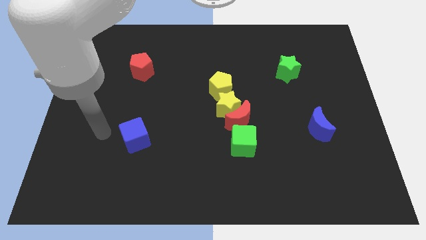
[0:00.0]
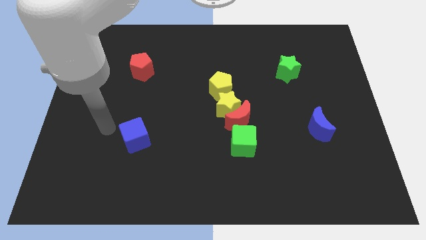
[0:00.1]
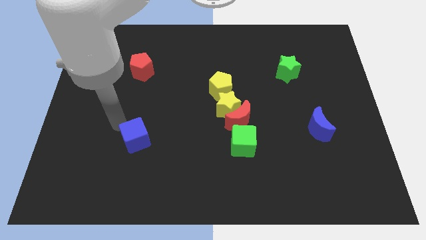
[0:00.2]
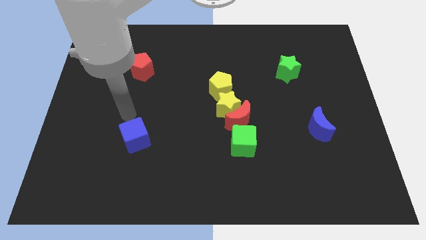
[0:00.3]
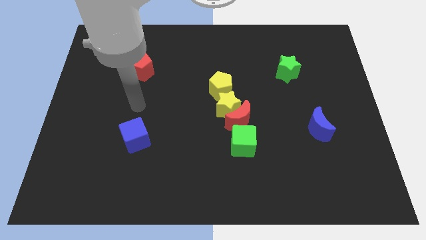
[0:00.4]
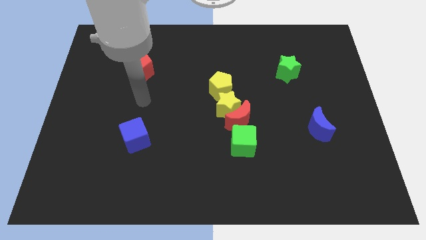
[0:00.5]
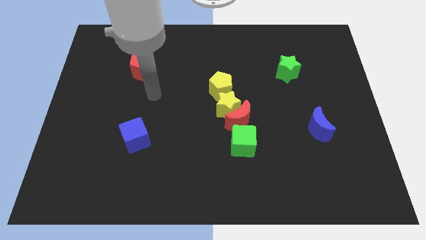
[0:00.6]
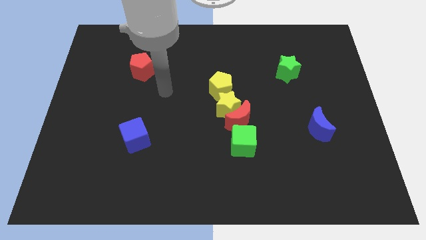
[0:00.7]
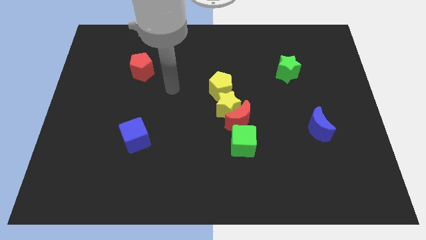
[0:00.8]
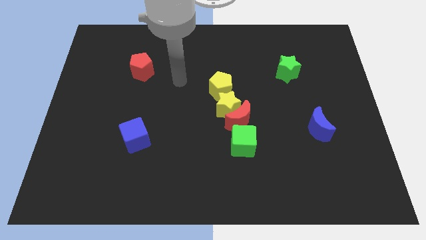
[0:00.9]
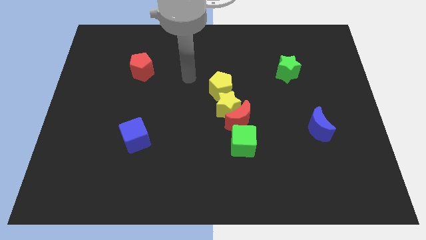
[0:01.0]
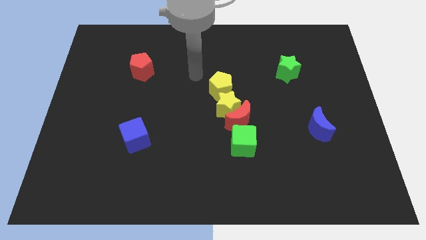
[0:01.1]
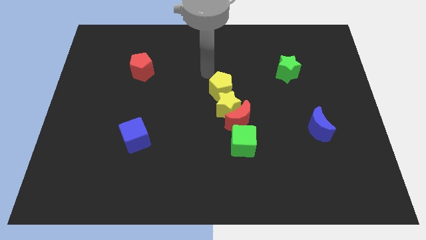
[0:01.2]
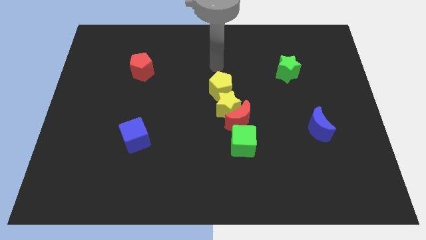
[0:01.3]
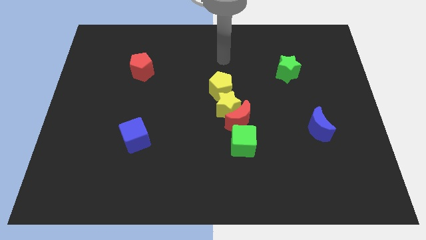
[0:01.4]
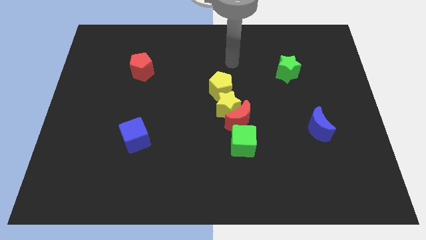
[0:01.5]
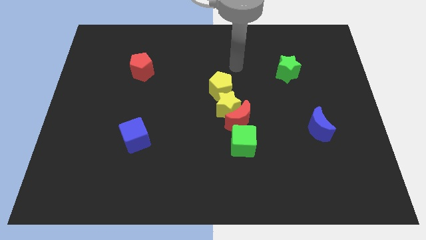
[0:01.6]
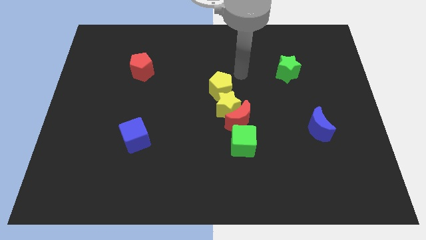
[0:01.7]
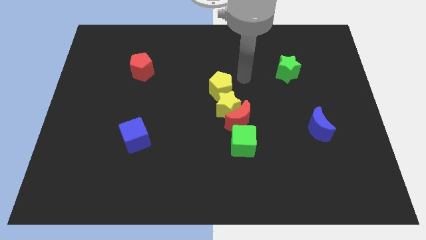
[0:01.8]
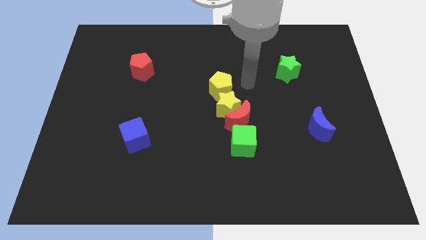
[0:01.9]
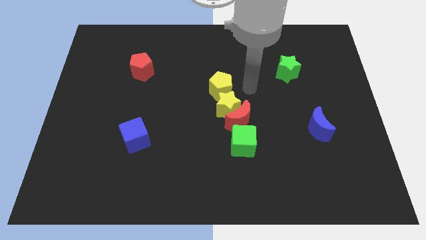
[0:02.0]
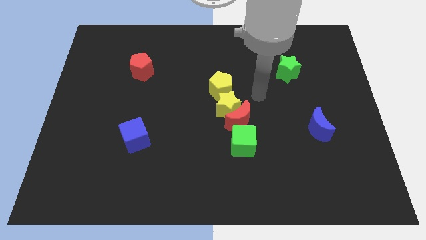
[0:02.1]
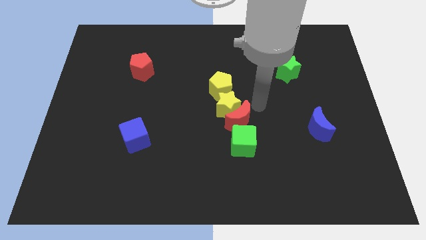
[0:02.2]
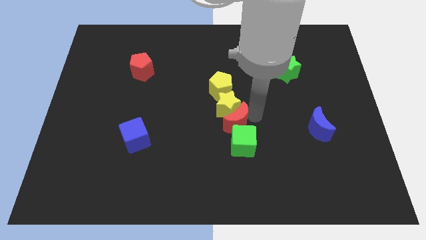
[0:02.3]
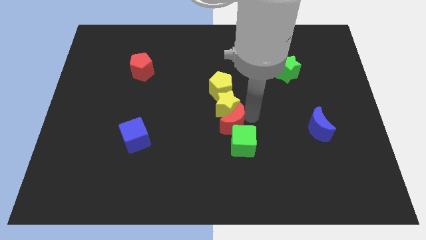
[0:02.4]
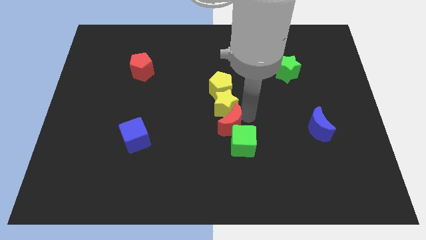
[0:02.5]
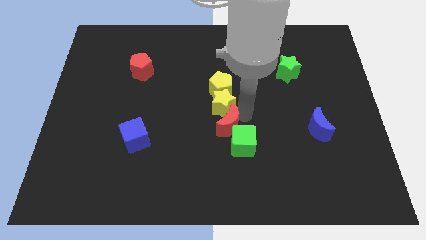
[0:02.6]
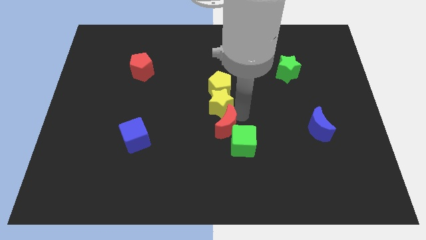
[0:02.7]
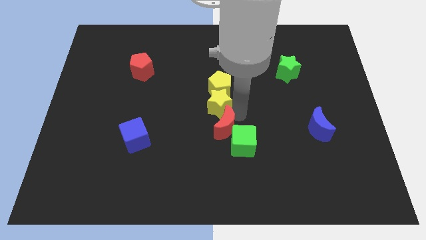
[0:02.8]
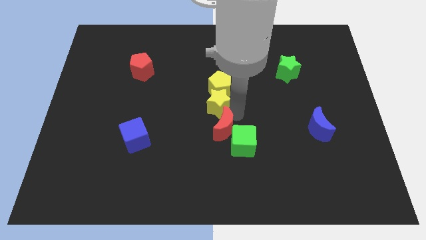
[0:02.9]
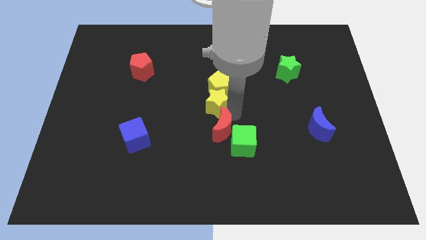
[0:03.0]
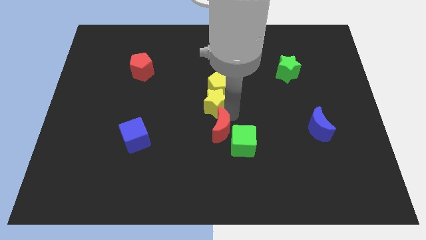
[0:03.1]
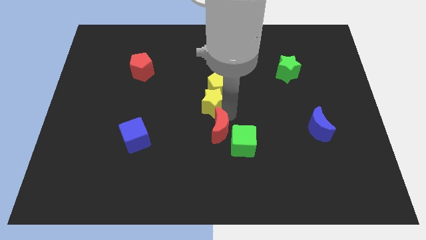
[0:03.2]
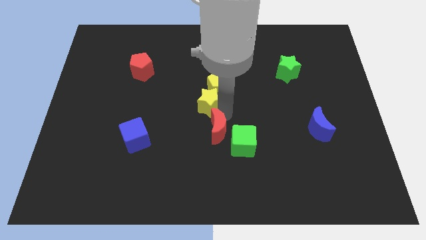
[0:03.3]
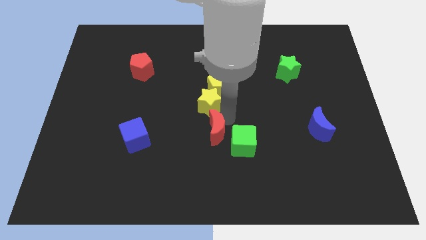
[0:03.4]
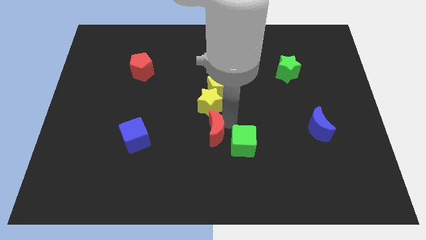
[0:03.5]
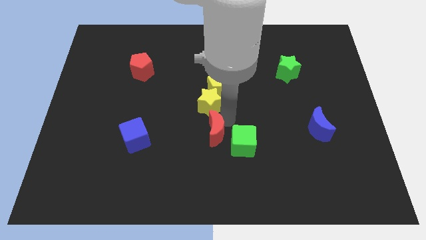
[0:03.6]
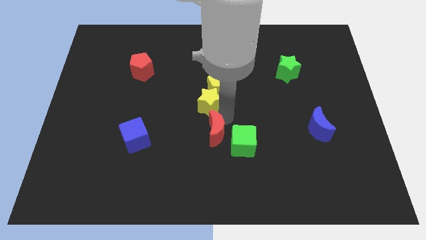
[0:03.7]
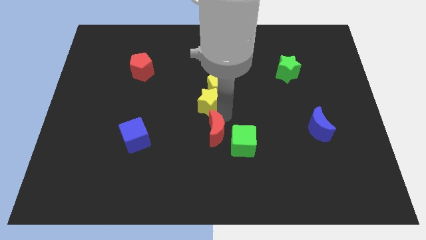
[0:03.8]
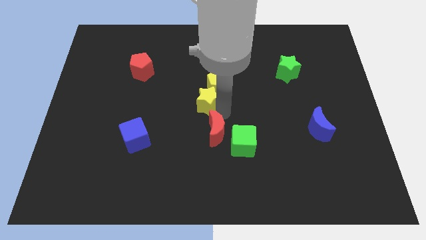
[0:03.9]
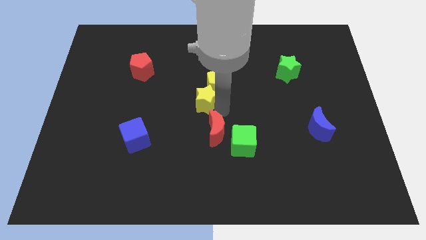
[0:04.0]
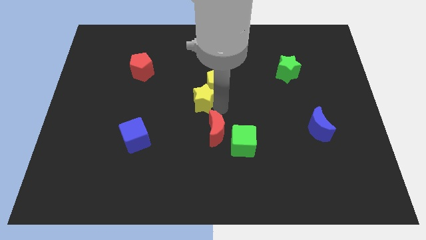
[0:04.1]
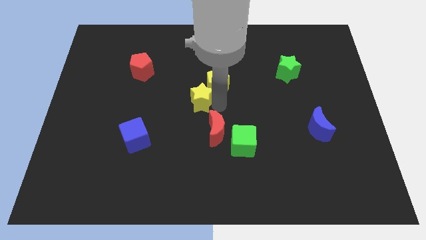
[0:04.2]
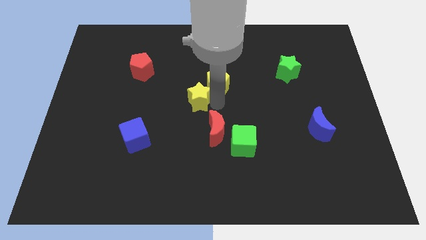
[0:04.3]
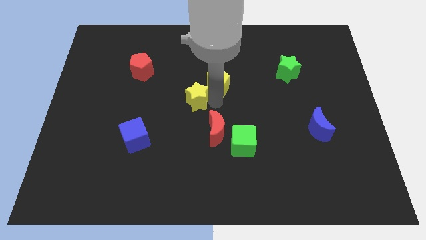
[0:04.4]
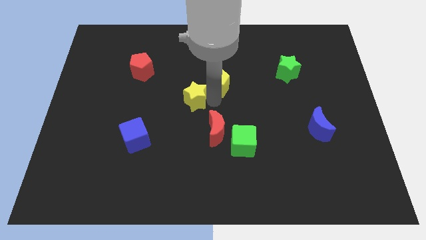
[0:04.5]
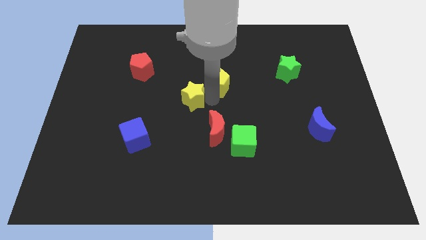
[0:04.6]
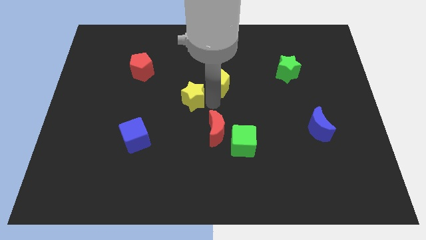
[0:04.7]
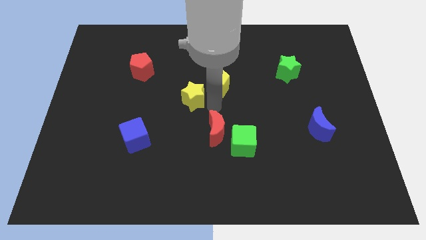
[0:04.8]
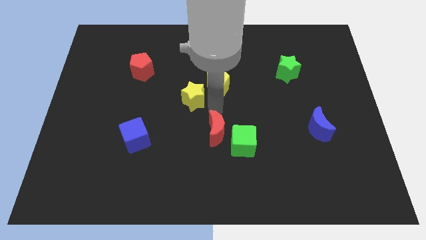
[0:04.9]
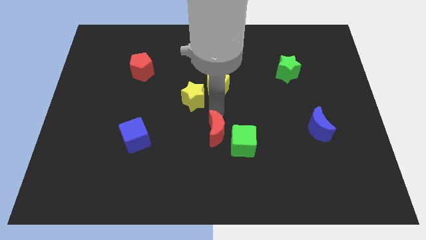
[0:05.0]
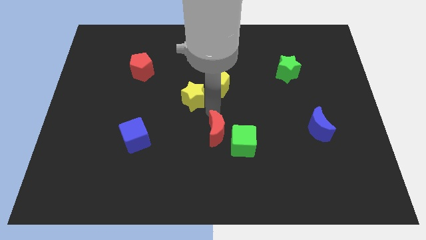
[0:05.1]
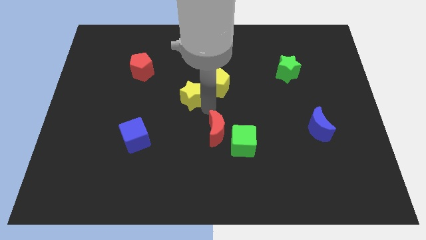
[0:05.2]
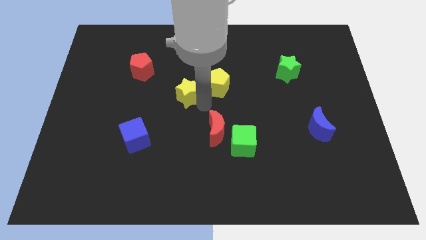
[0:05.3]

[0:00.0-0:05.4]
separate the yellow star from the red moon, yellow pentagon, and green cube

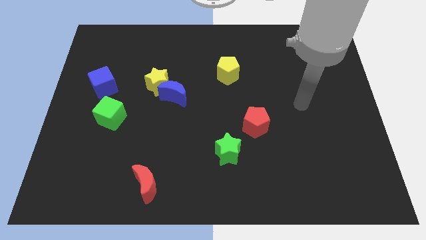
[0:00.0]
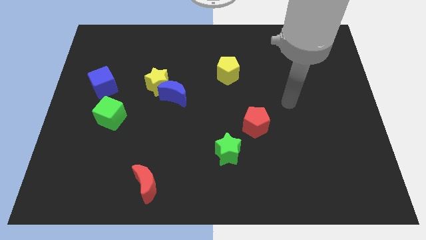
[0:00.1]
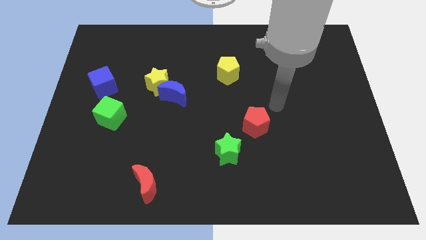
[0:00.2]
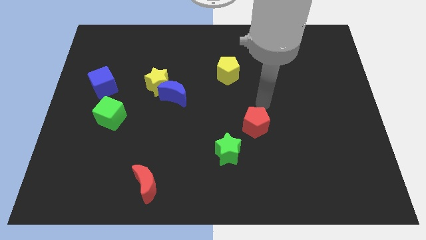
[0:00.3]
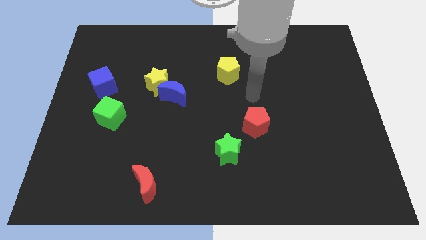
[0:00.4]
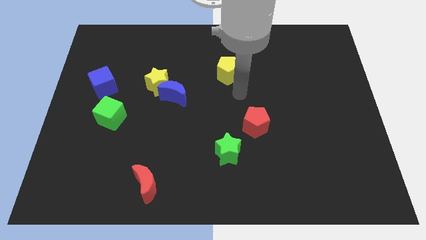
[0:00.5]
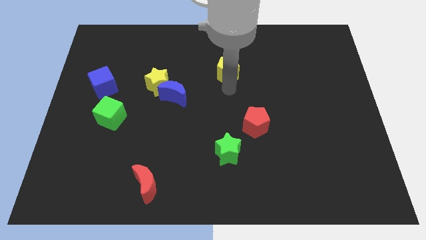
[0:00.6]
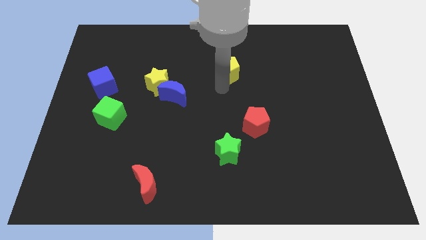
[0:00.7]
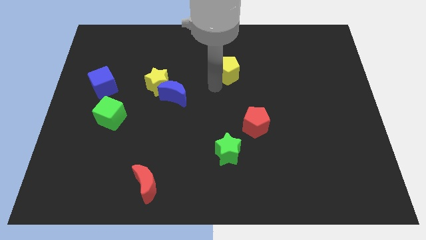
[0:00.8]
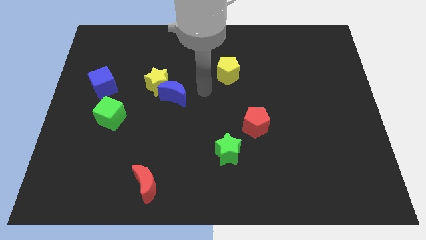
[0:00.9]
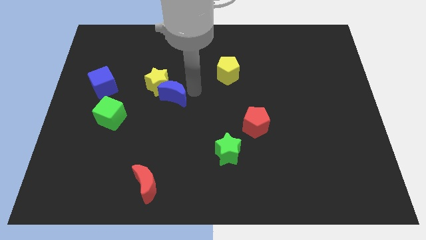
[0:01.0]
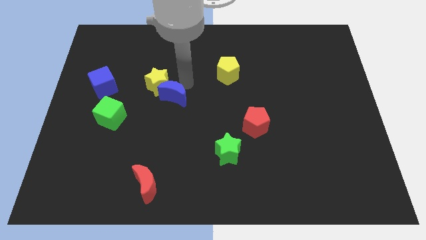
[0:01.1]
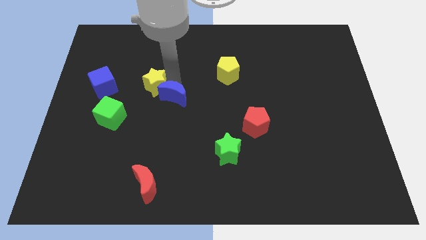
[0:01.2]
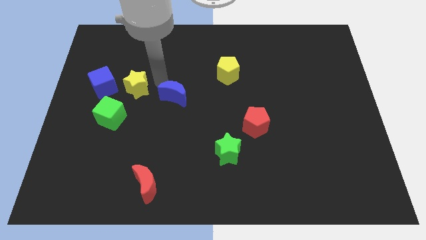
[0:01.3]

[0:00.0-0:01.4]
pull the blue moon apart from the yellow star

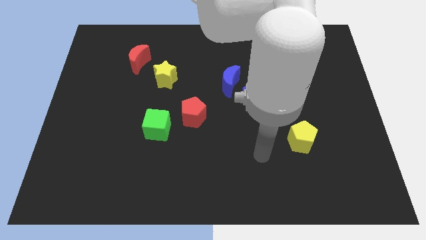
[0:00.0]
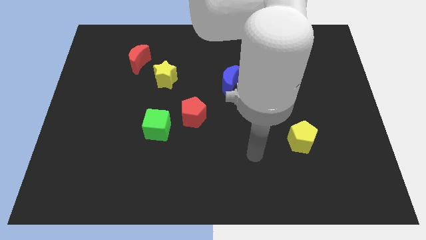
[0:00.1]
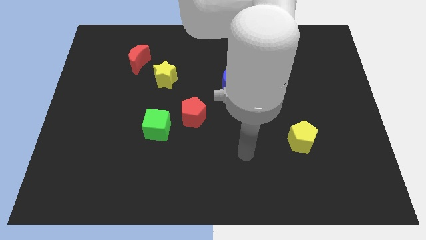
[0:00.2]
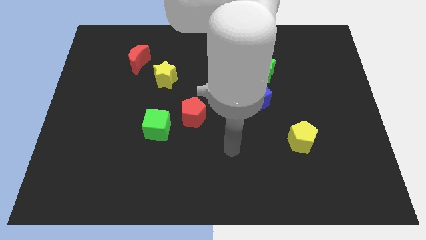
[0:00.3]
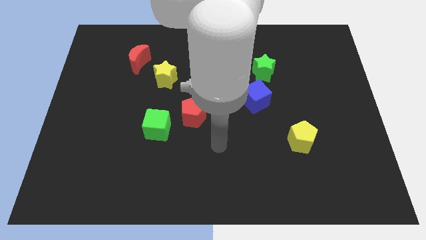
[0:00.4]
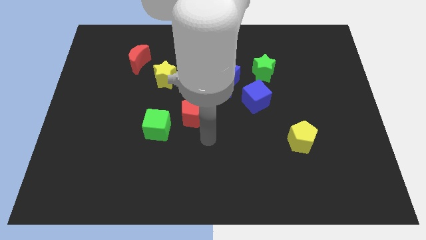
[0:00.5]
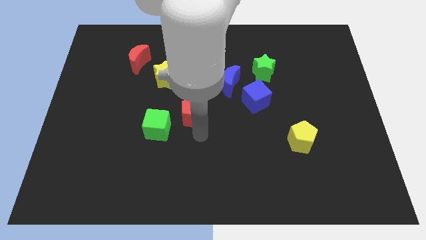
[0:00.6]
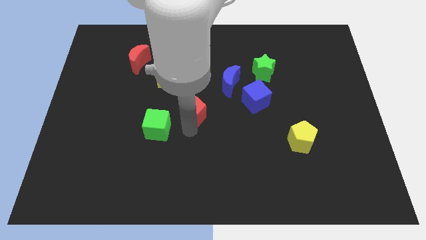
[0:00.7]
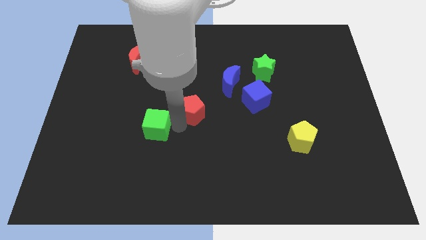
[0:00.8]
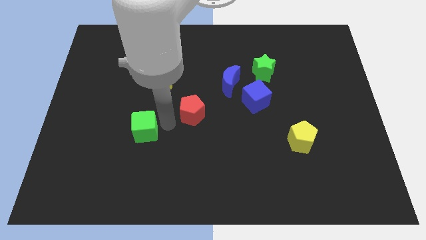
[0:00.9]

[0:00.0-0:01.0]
pull the red pentagon apart from the green cube

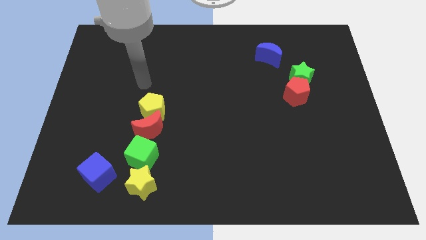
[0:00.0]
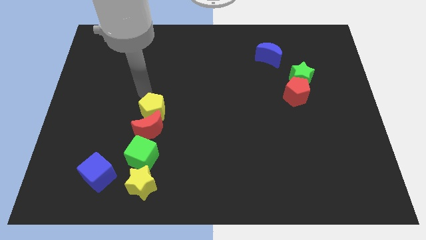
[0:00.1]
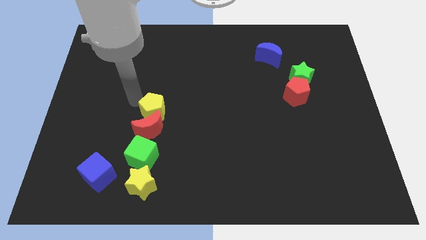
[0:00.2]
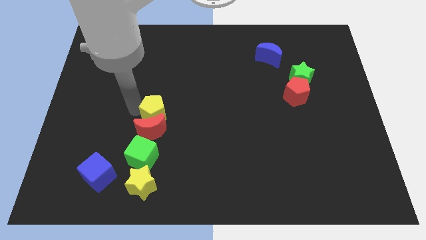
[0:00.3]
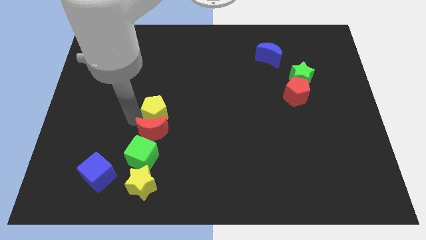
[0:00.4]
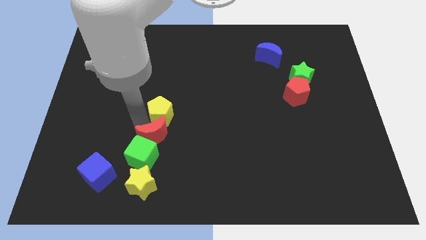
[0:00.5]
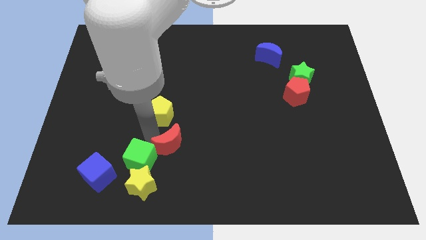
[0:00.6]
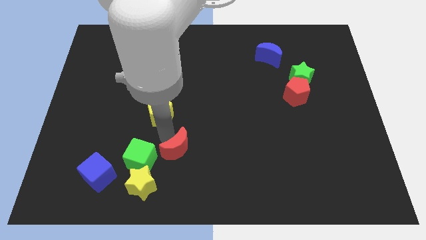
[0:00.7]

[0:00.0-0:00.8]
separate the yellow pentagon from the red moon

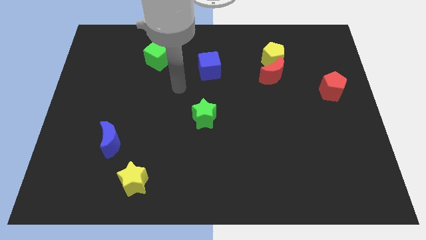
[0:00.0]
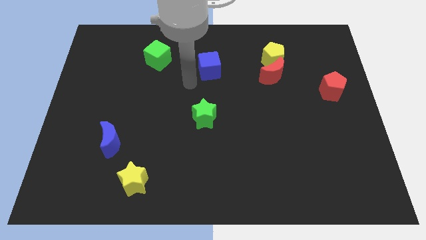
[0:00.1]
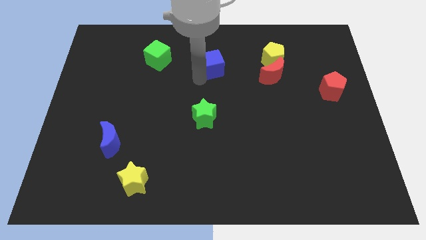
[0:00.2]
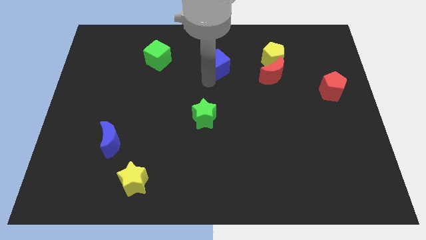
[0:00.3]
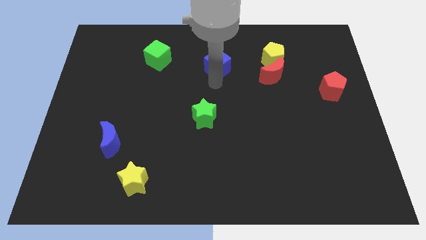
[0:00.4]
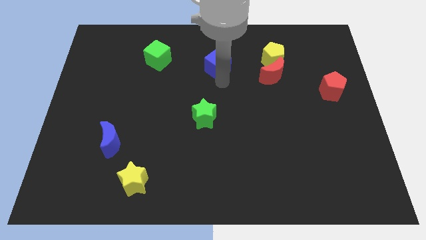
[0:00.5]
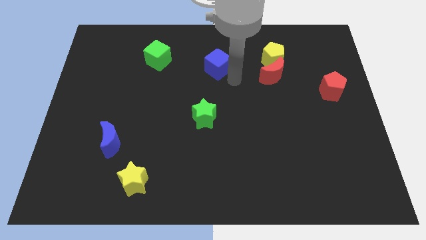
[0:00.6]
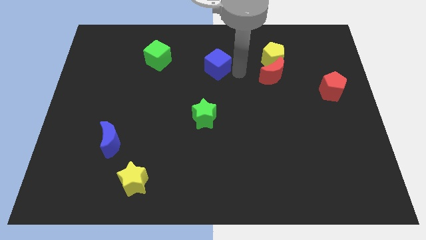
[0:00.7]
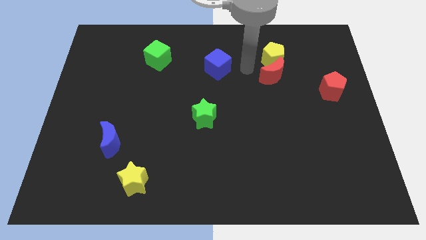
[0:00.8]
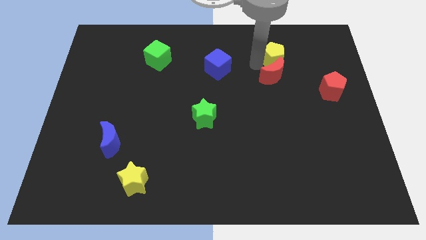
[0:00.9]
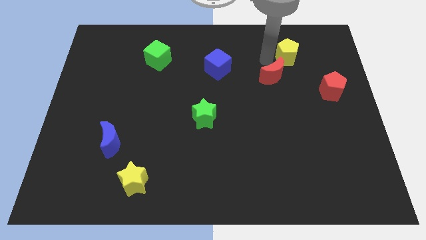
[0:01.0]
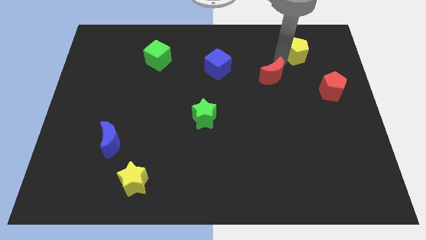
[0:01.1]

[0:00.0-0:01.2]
move the red moon away from the yellow pentagon
